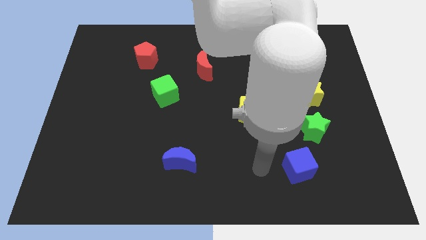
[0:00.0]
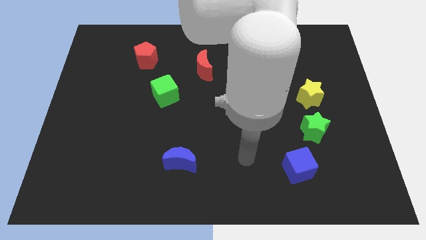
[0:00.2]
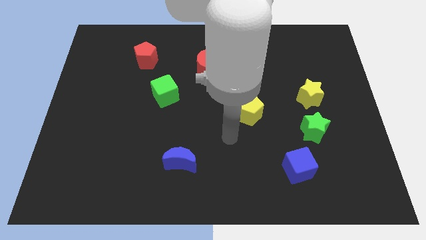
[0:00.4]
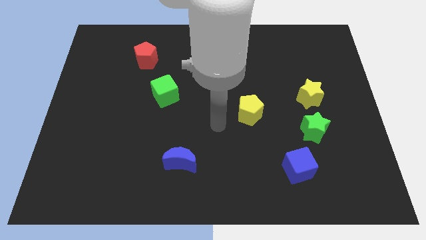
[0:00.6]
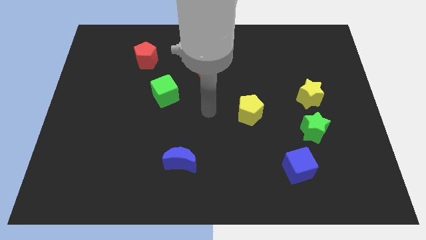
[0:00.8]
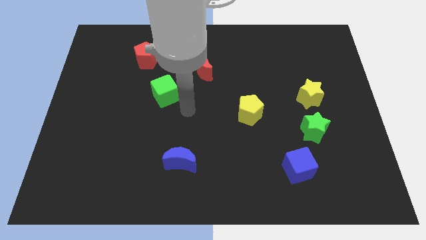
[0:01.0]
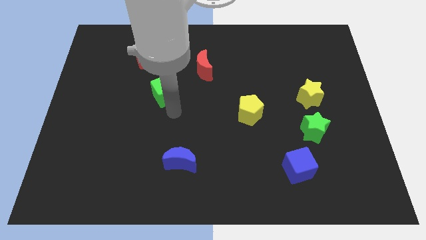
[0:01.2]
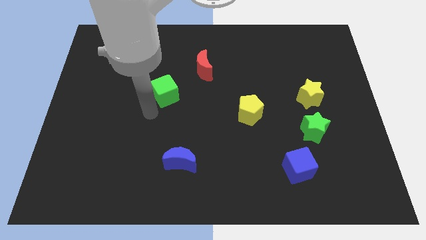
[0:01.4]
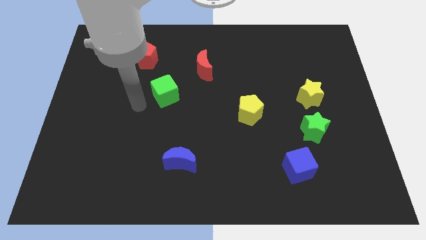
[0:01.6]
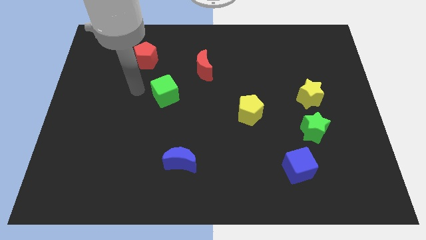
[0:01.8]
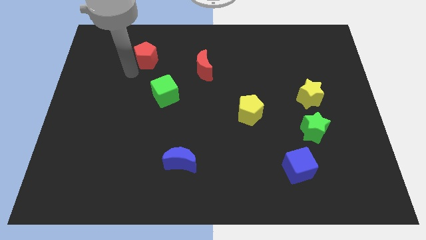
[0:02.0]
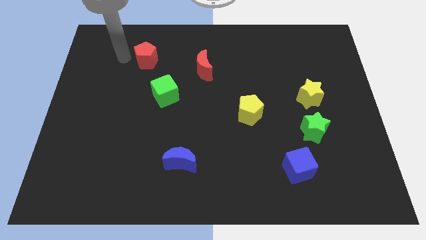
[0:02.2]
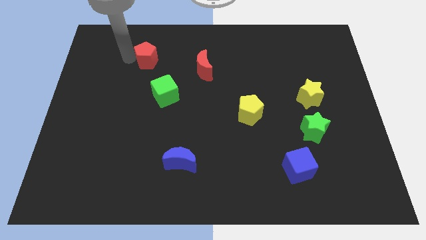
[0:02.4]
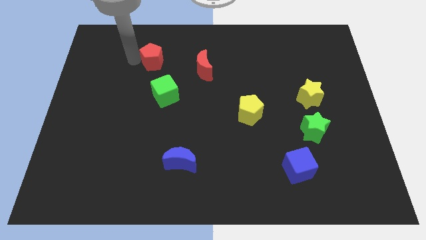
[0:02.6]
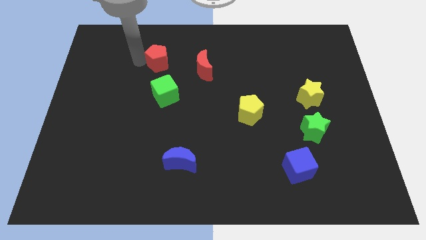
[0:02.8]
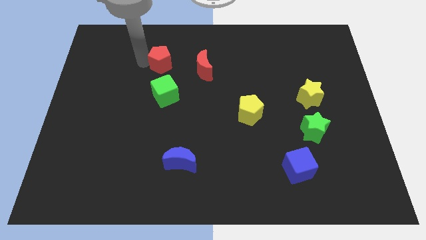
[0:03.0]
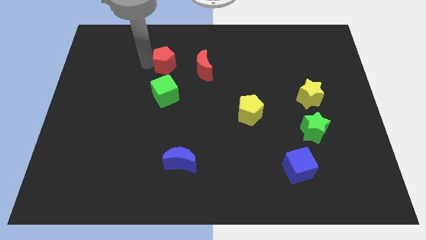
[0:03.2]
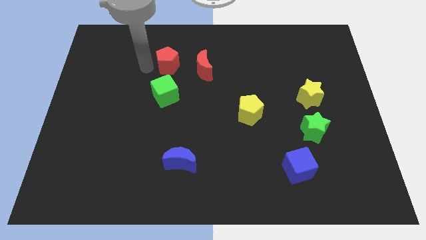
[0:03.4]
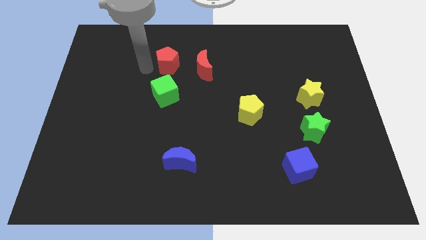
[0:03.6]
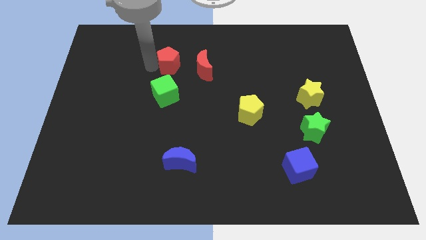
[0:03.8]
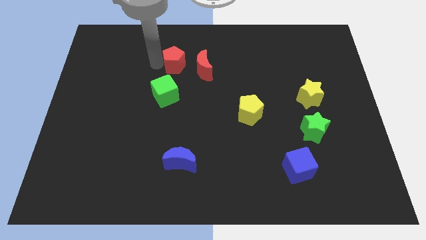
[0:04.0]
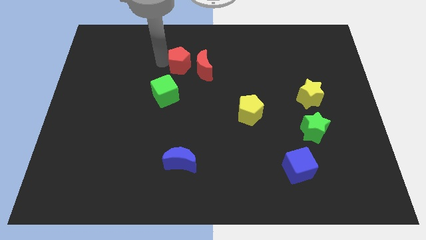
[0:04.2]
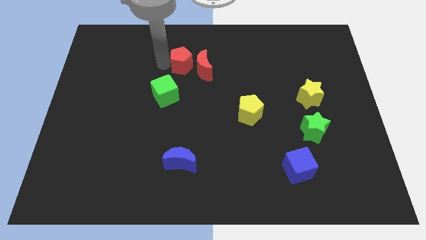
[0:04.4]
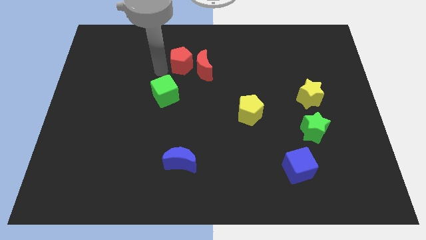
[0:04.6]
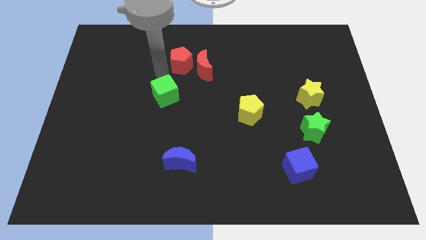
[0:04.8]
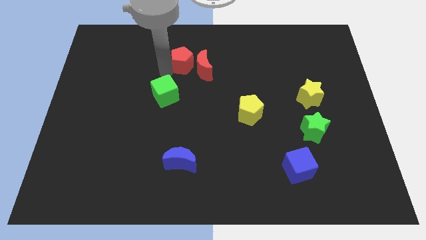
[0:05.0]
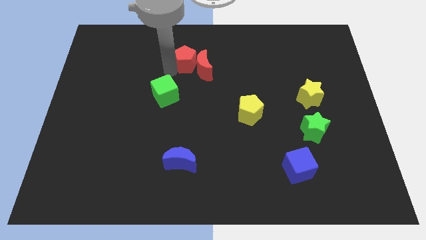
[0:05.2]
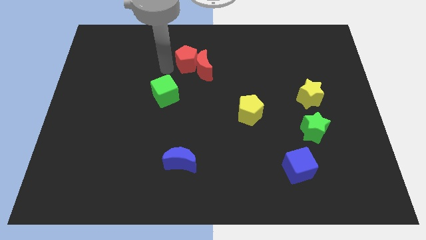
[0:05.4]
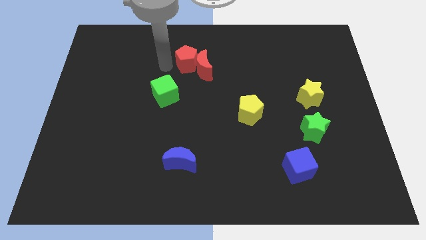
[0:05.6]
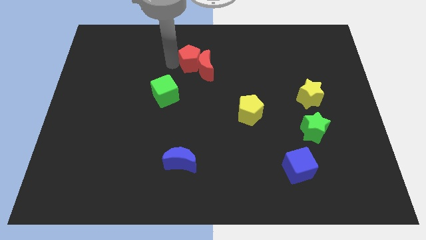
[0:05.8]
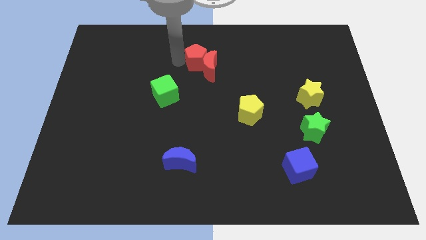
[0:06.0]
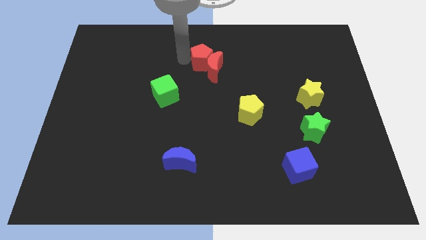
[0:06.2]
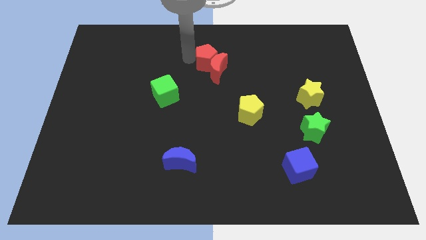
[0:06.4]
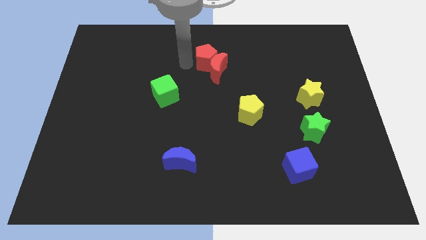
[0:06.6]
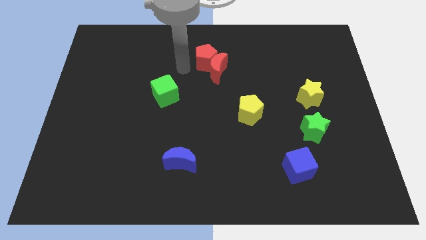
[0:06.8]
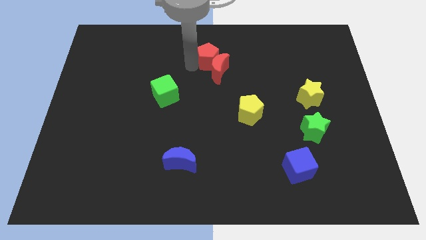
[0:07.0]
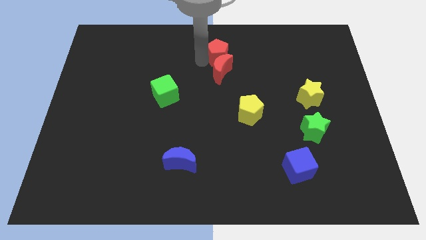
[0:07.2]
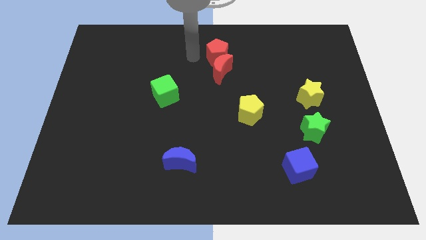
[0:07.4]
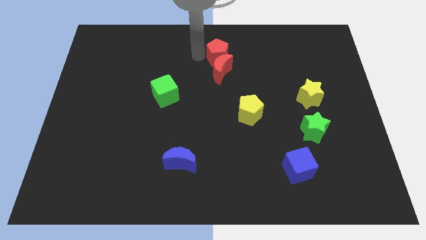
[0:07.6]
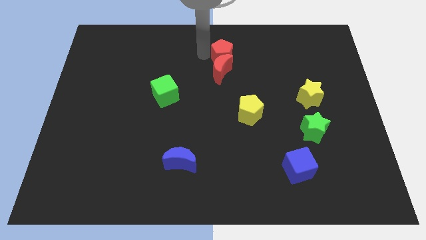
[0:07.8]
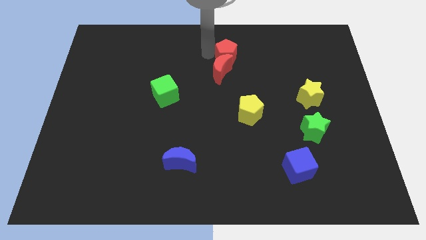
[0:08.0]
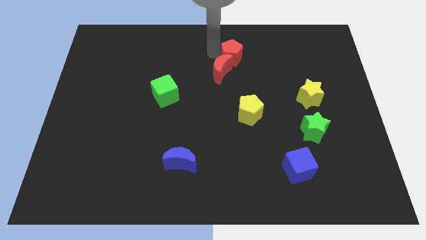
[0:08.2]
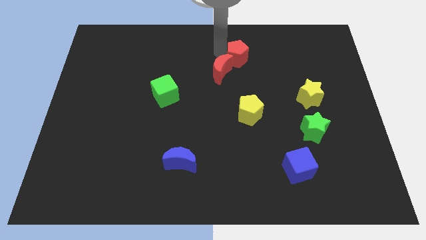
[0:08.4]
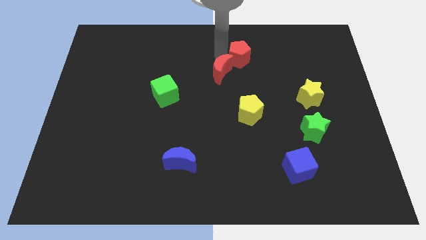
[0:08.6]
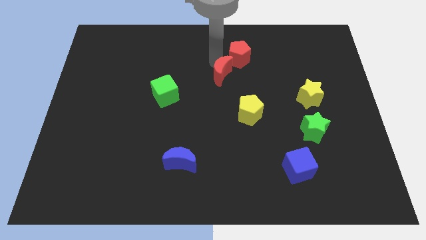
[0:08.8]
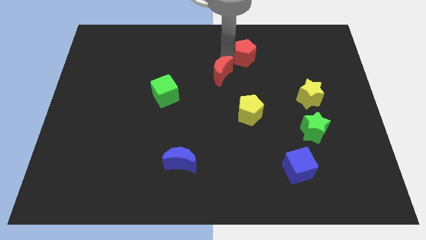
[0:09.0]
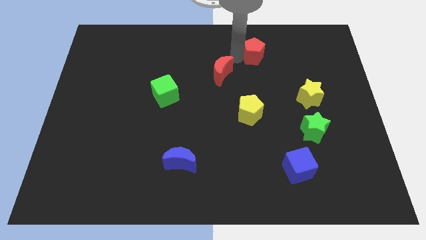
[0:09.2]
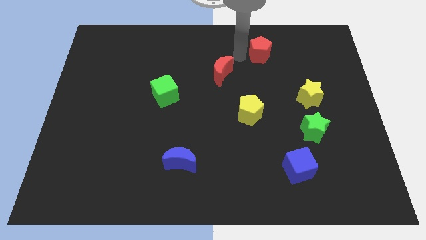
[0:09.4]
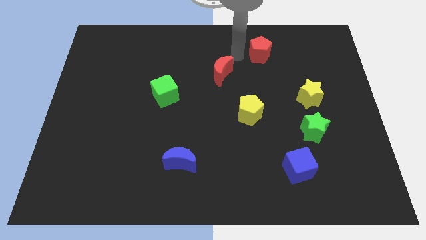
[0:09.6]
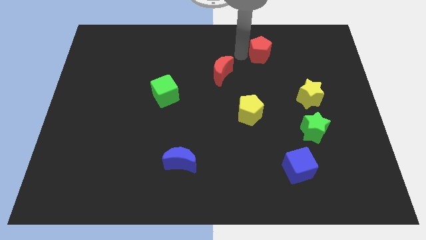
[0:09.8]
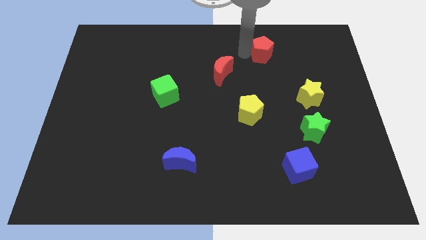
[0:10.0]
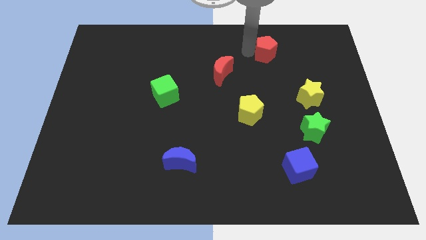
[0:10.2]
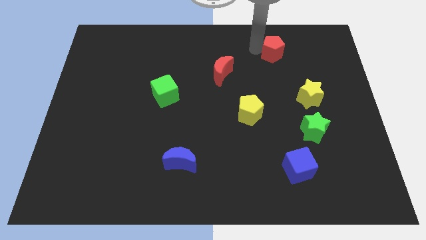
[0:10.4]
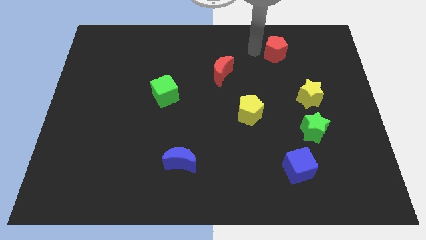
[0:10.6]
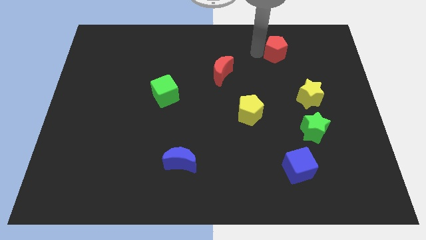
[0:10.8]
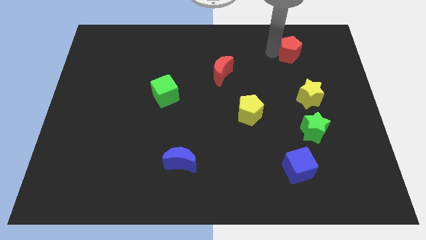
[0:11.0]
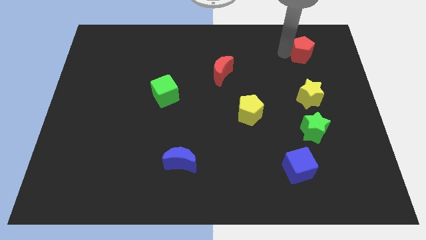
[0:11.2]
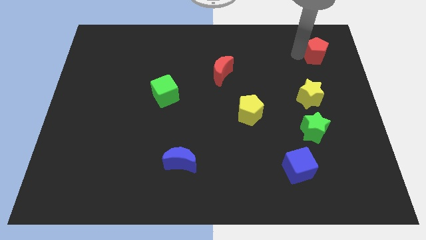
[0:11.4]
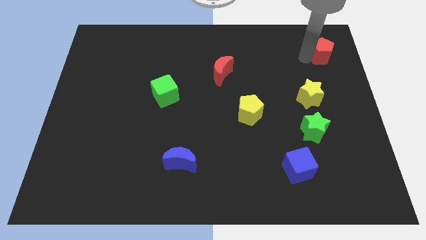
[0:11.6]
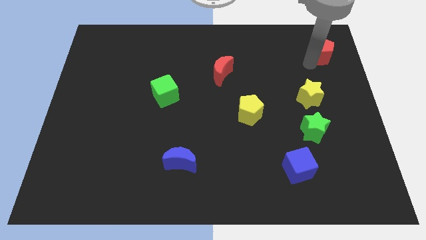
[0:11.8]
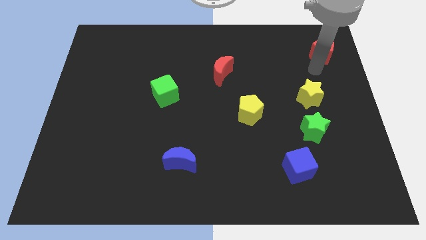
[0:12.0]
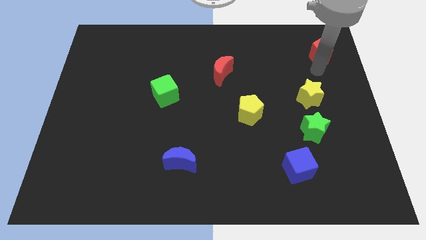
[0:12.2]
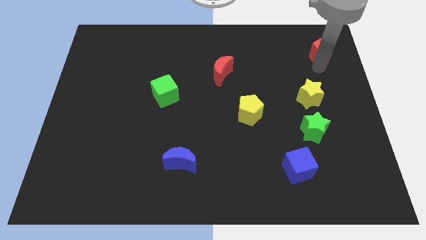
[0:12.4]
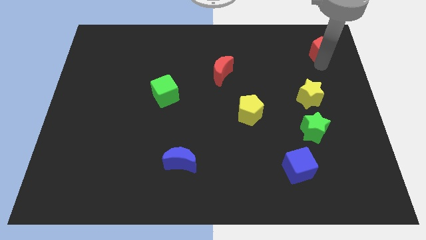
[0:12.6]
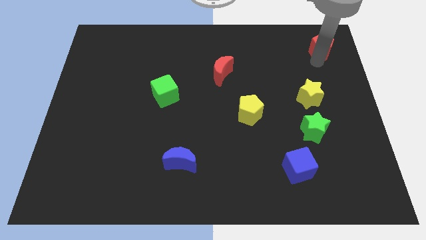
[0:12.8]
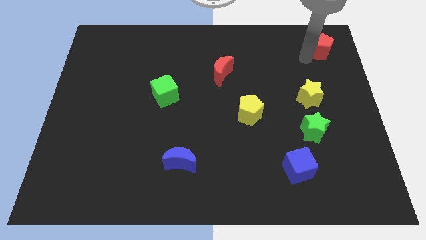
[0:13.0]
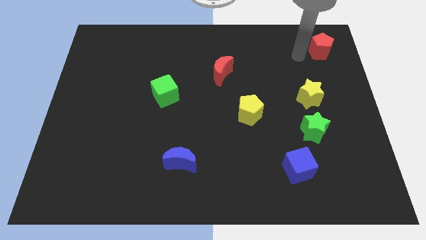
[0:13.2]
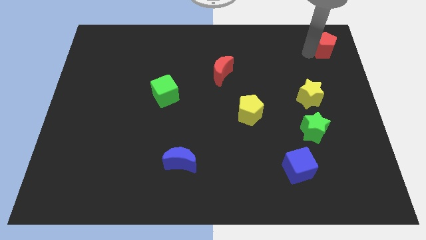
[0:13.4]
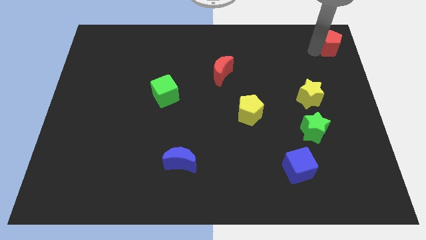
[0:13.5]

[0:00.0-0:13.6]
push the red pentagon to the top right of the board

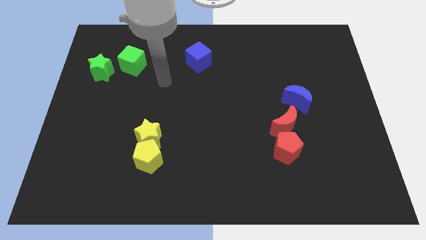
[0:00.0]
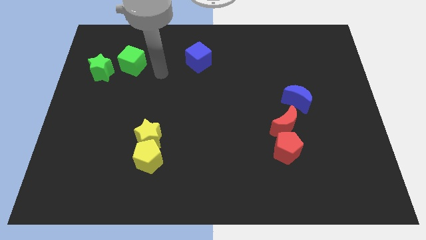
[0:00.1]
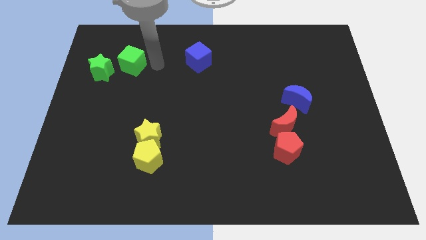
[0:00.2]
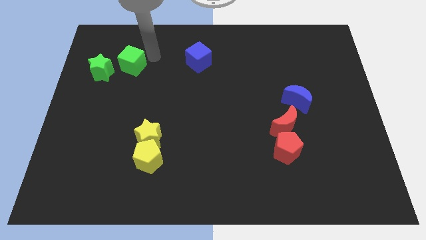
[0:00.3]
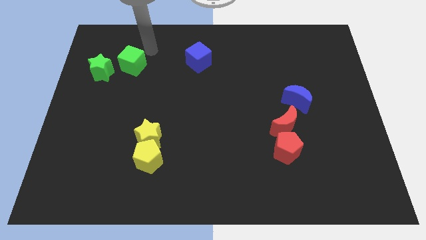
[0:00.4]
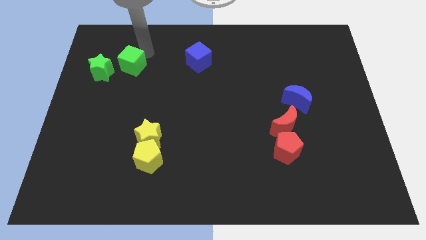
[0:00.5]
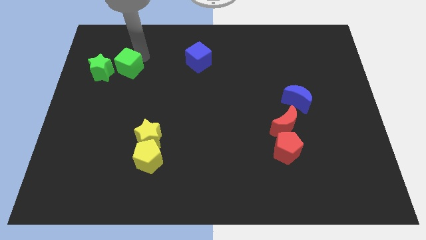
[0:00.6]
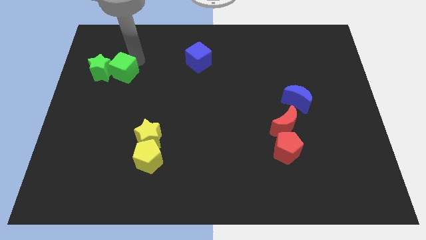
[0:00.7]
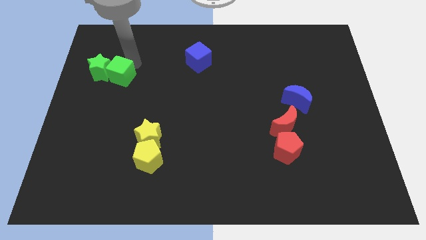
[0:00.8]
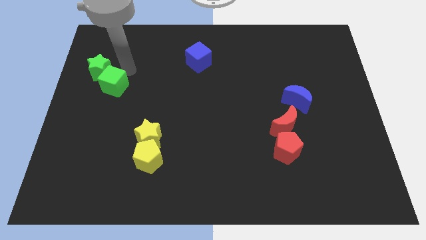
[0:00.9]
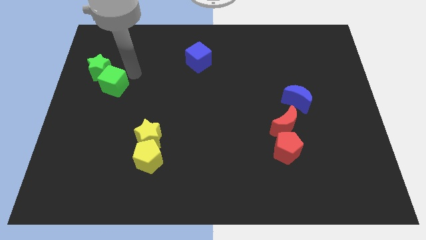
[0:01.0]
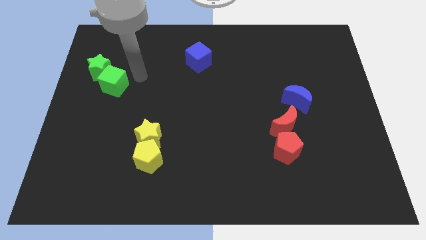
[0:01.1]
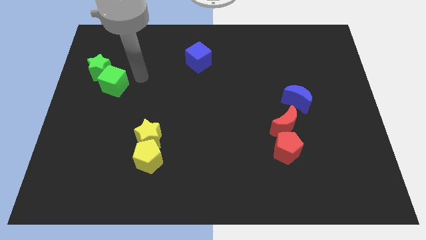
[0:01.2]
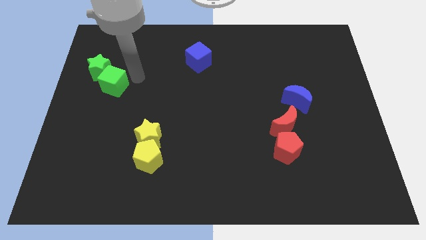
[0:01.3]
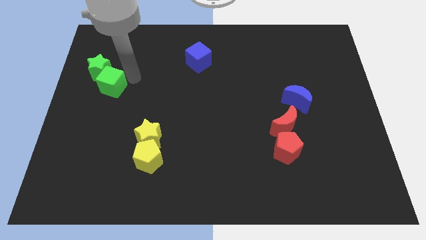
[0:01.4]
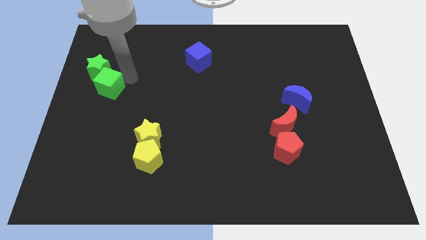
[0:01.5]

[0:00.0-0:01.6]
push the green cube to the left side
